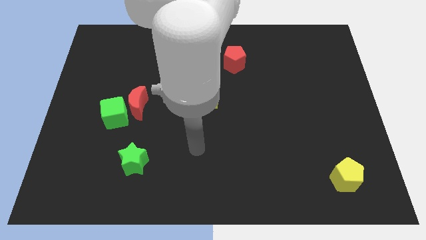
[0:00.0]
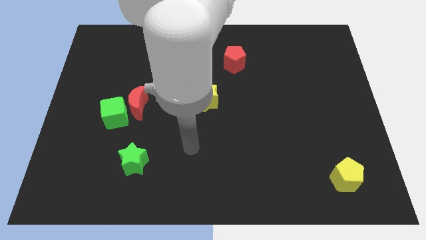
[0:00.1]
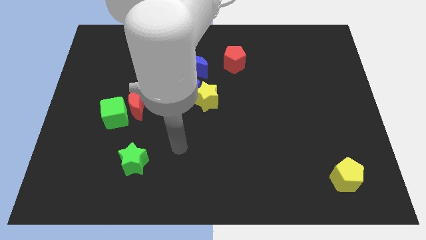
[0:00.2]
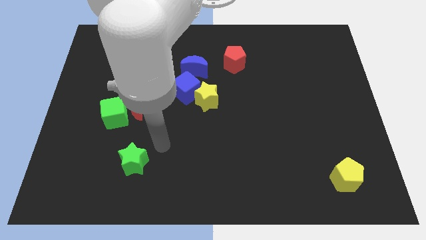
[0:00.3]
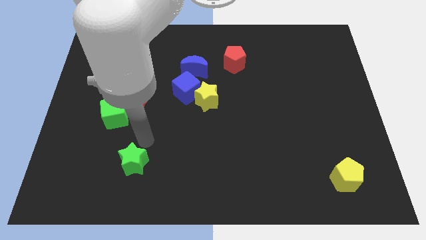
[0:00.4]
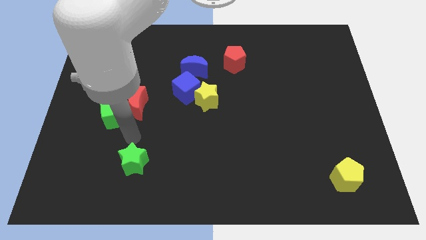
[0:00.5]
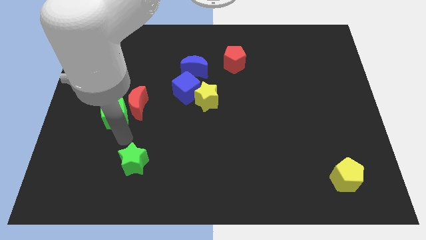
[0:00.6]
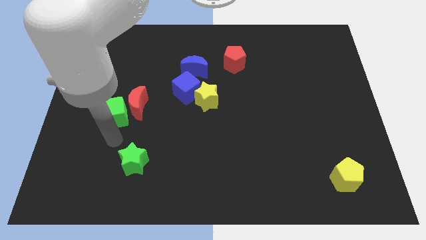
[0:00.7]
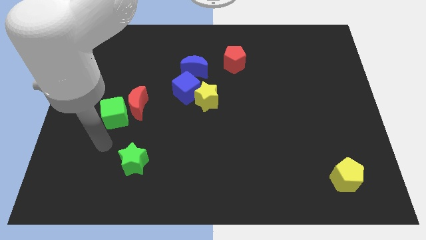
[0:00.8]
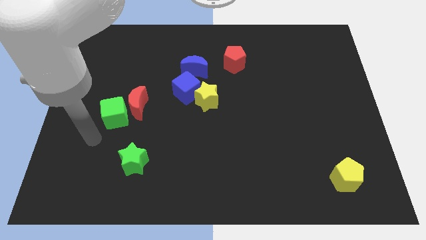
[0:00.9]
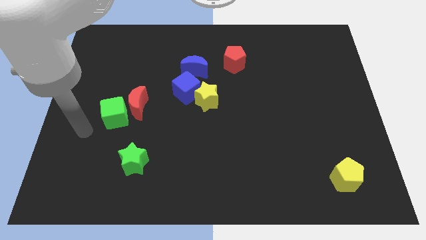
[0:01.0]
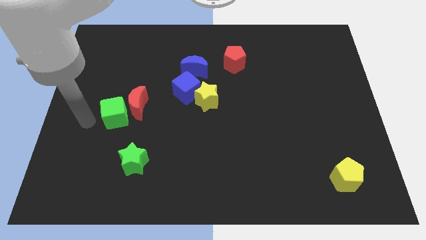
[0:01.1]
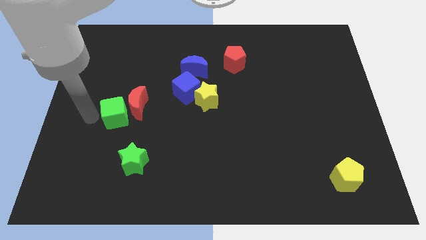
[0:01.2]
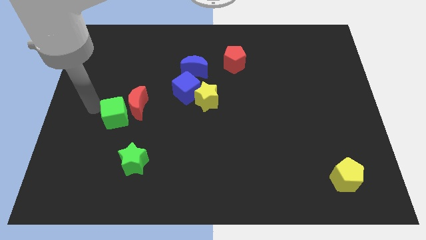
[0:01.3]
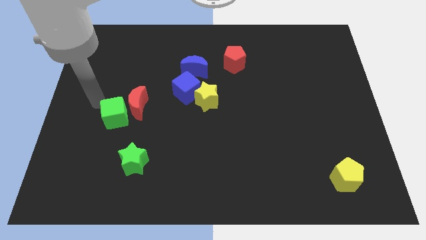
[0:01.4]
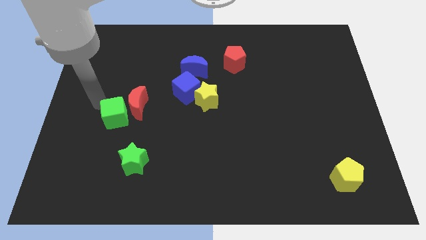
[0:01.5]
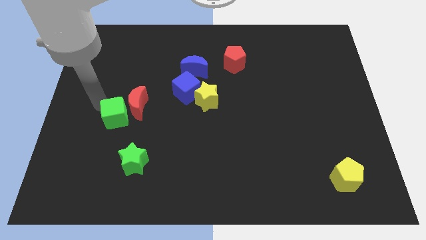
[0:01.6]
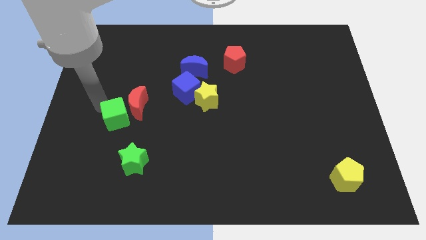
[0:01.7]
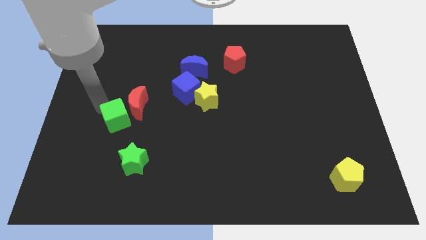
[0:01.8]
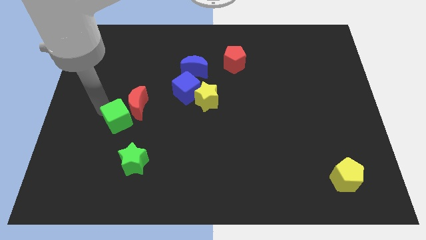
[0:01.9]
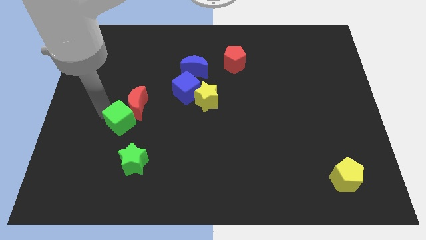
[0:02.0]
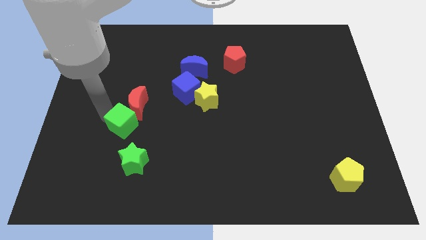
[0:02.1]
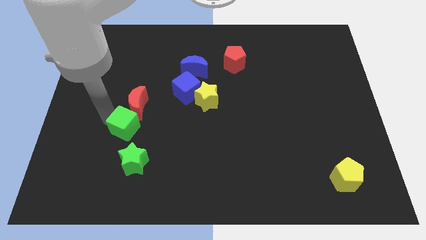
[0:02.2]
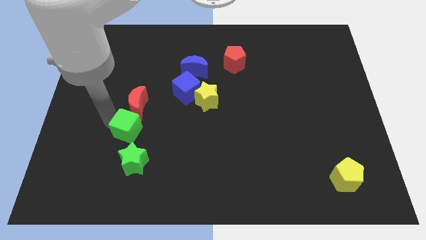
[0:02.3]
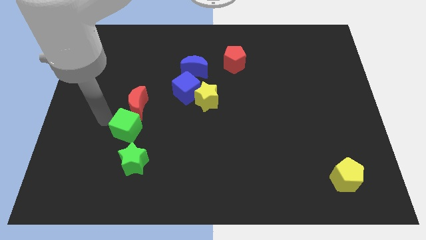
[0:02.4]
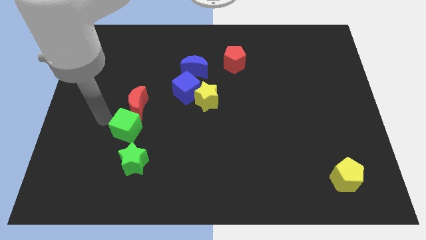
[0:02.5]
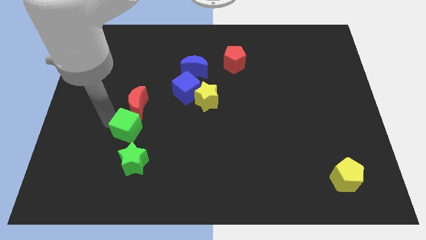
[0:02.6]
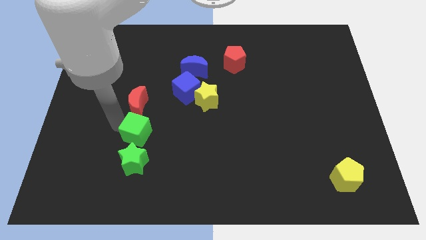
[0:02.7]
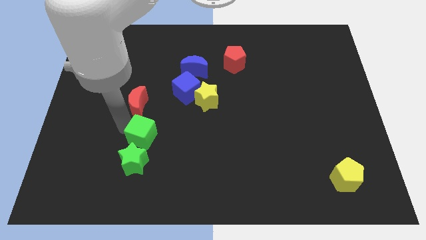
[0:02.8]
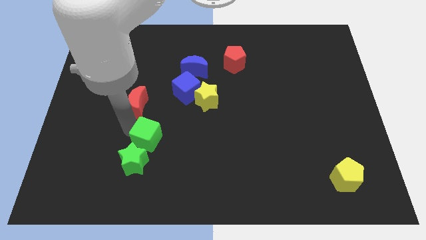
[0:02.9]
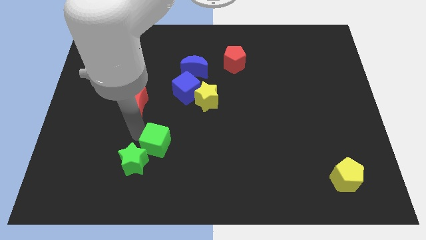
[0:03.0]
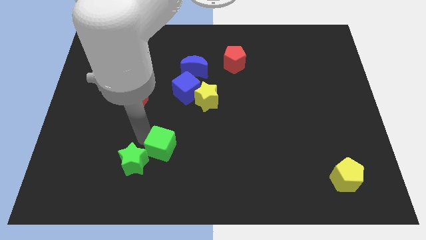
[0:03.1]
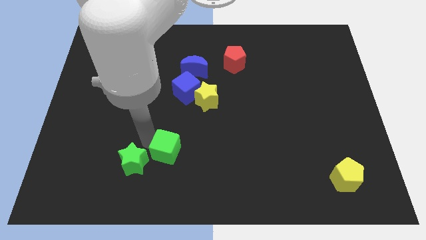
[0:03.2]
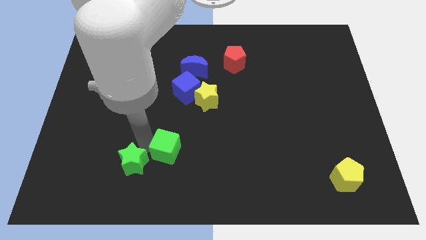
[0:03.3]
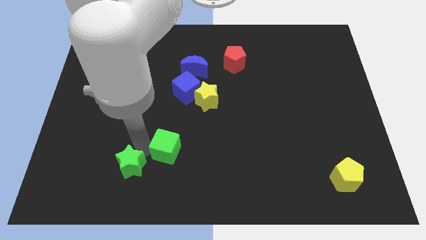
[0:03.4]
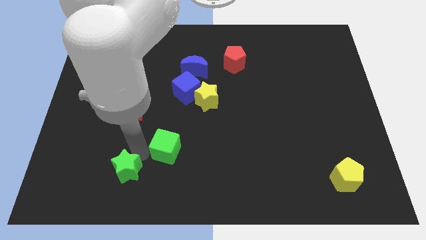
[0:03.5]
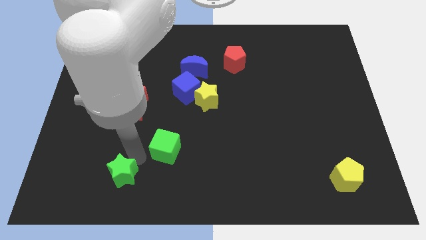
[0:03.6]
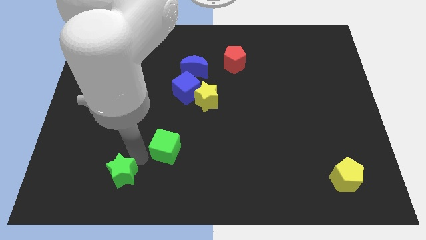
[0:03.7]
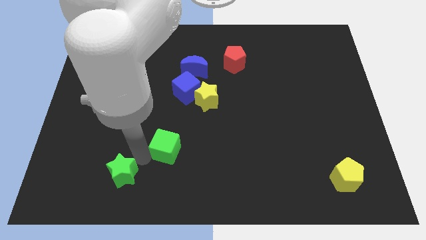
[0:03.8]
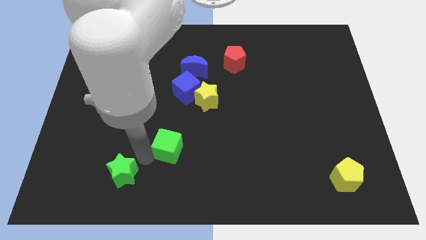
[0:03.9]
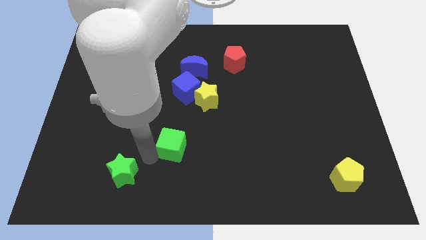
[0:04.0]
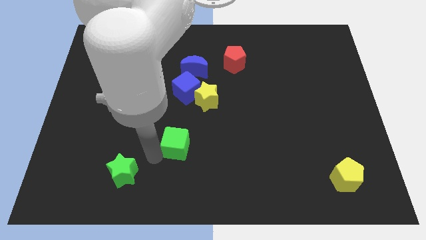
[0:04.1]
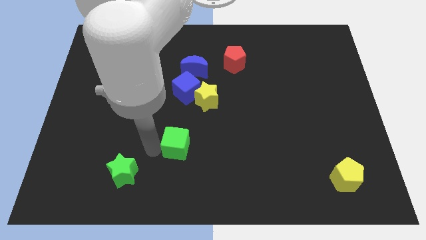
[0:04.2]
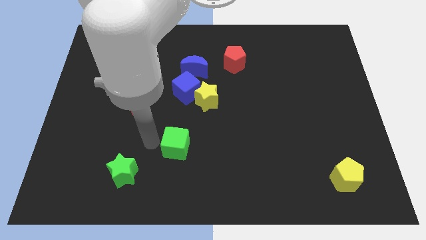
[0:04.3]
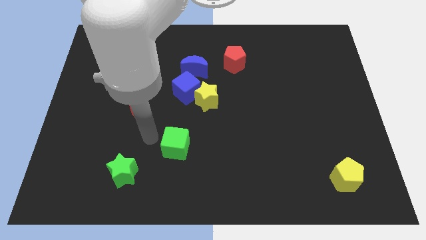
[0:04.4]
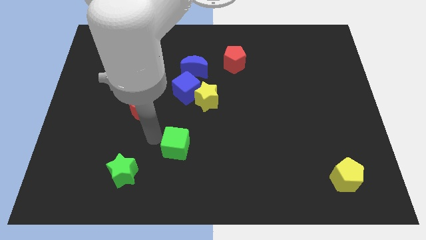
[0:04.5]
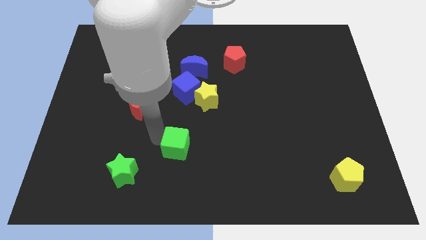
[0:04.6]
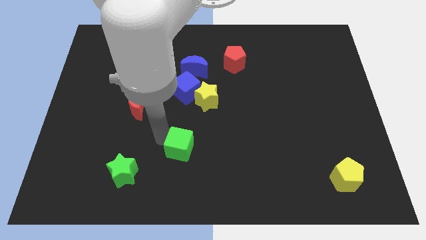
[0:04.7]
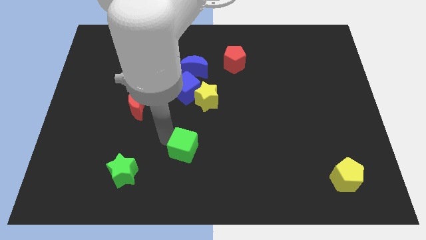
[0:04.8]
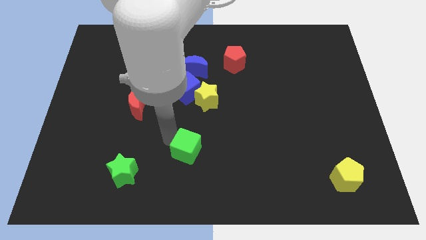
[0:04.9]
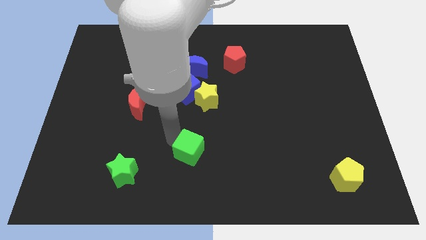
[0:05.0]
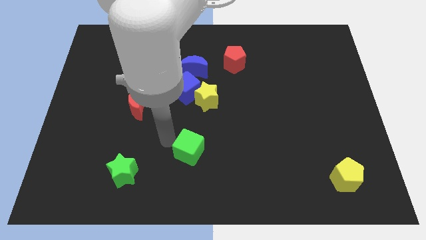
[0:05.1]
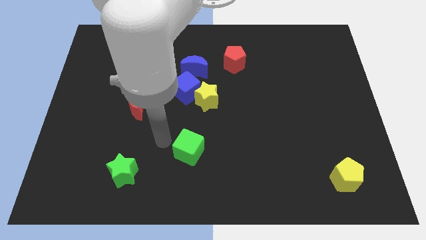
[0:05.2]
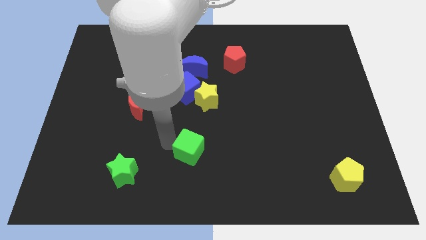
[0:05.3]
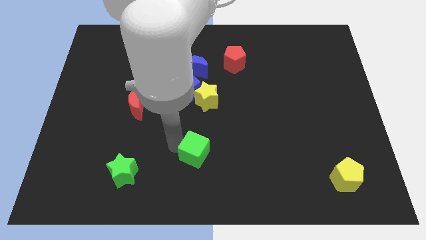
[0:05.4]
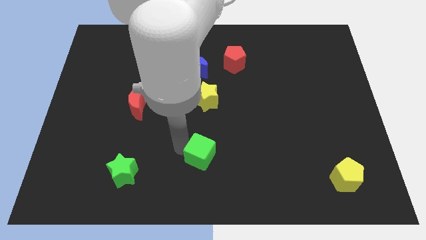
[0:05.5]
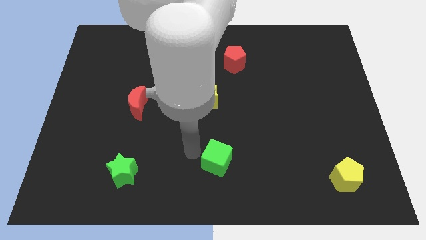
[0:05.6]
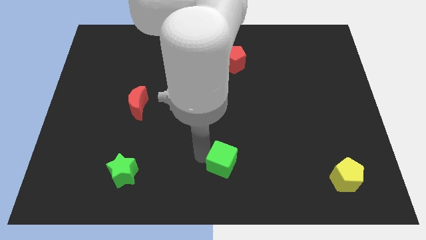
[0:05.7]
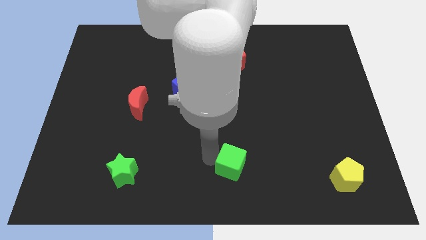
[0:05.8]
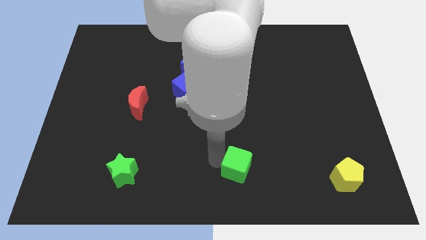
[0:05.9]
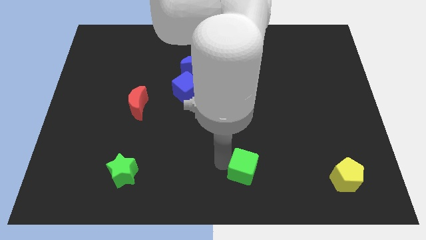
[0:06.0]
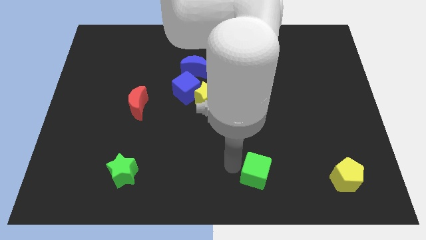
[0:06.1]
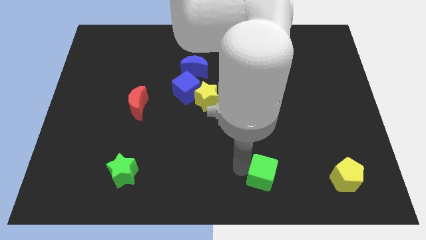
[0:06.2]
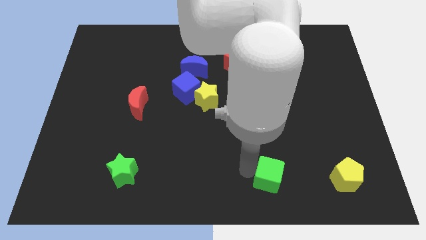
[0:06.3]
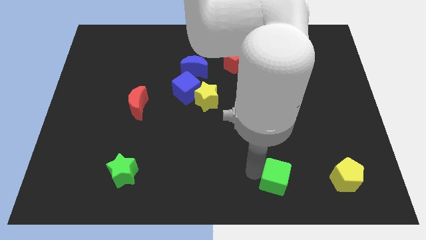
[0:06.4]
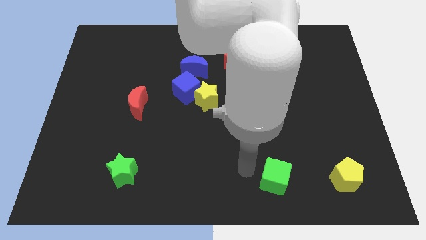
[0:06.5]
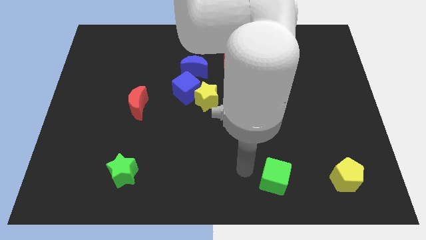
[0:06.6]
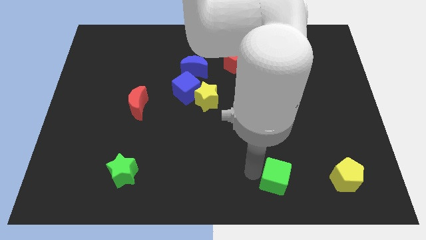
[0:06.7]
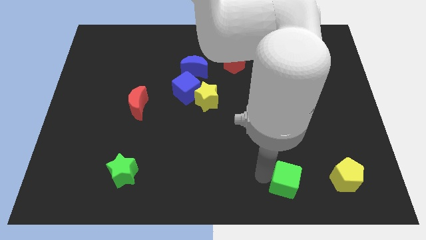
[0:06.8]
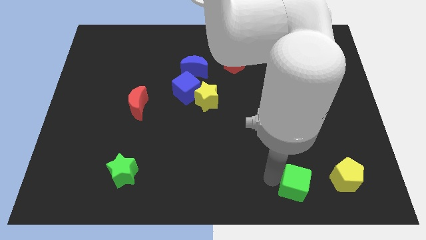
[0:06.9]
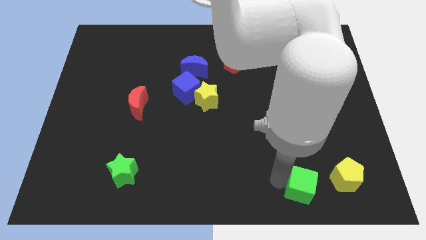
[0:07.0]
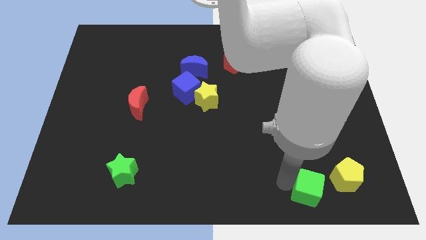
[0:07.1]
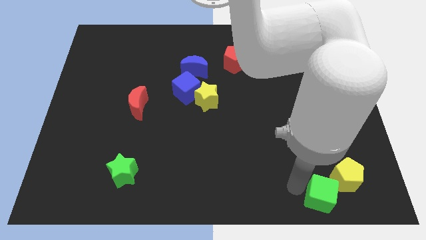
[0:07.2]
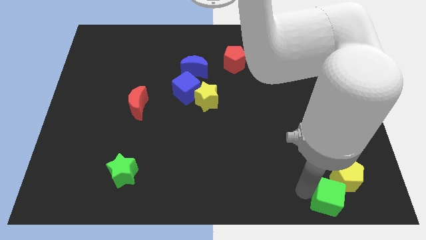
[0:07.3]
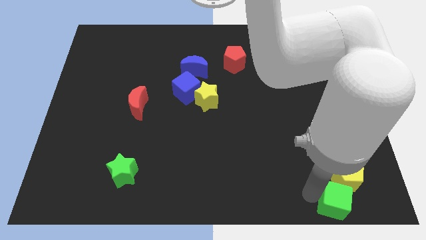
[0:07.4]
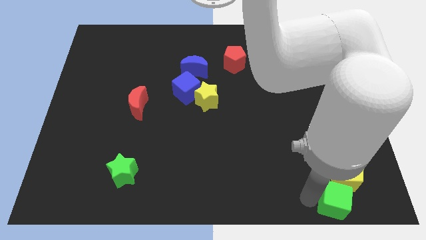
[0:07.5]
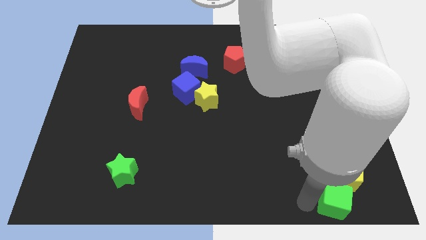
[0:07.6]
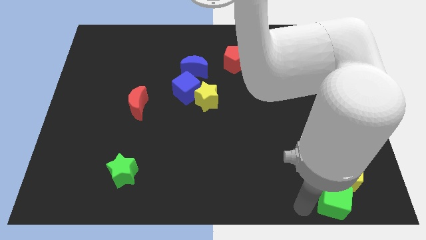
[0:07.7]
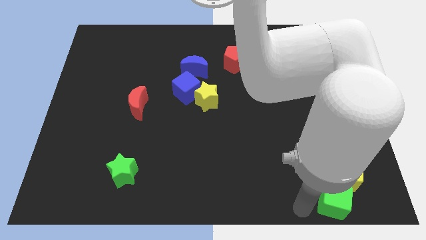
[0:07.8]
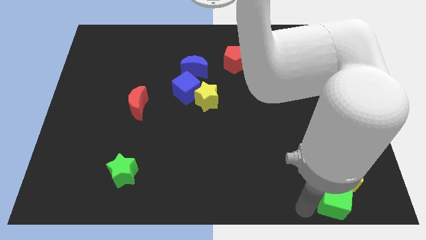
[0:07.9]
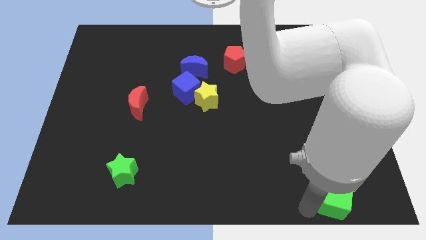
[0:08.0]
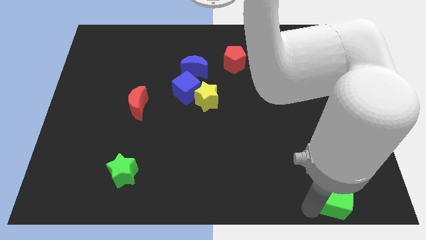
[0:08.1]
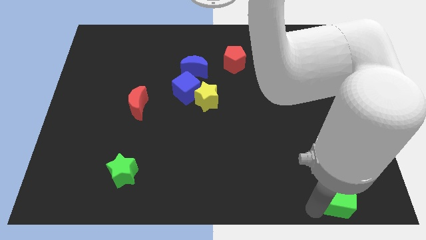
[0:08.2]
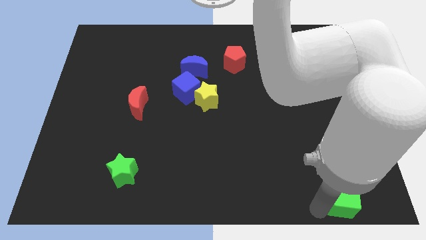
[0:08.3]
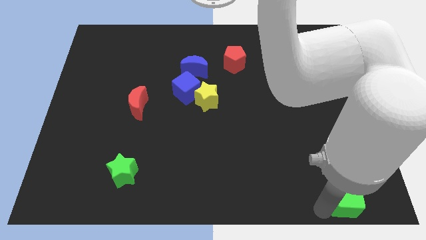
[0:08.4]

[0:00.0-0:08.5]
move the green cube to the lower right corner
